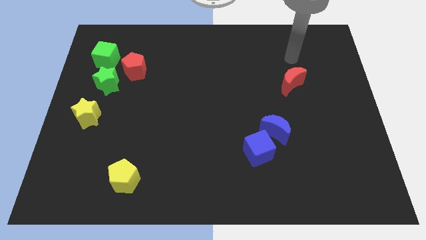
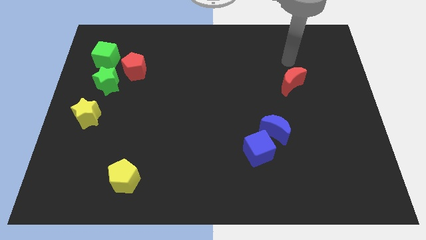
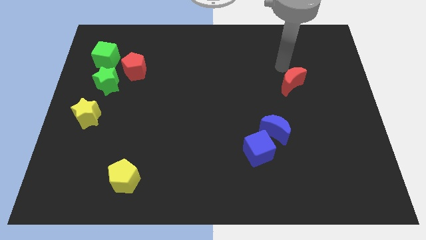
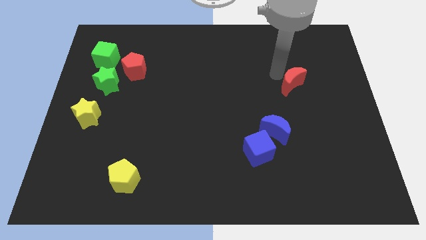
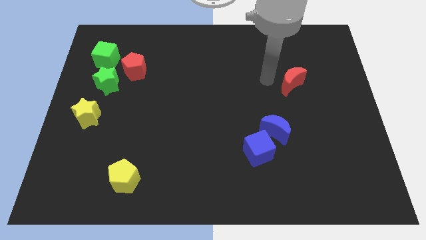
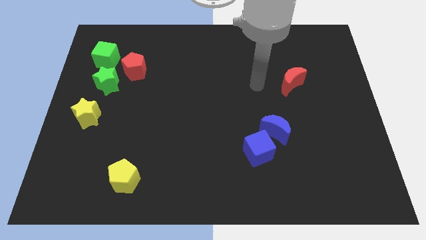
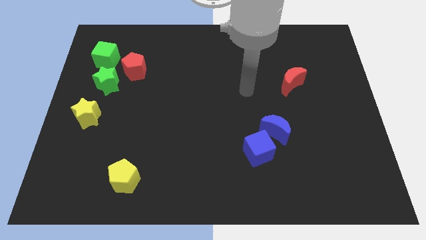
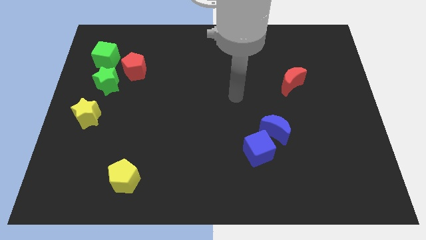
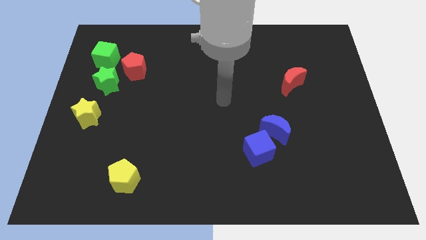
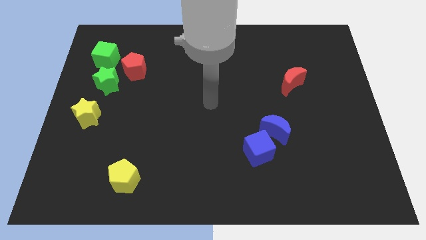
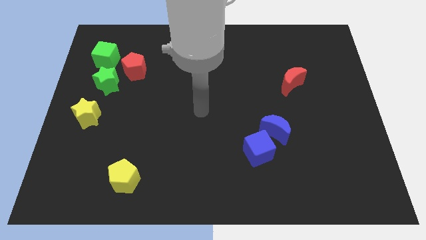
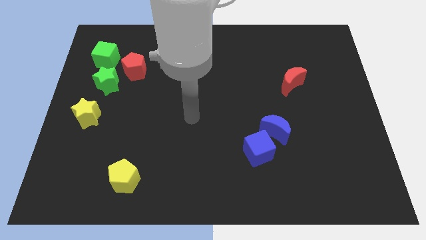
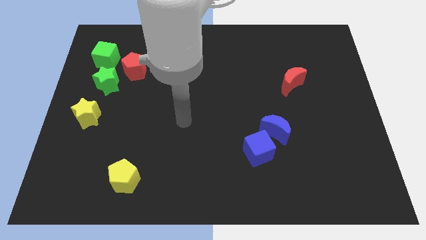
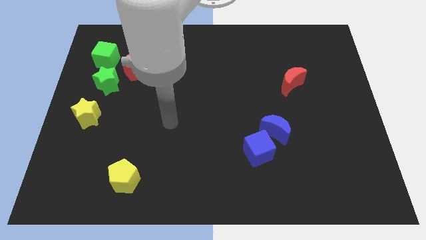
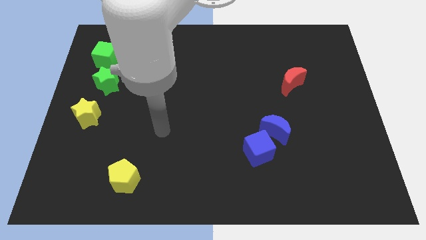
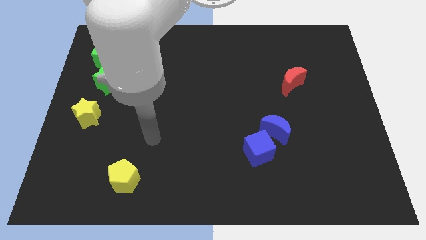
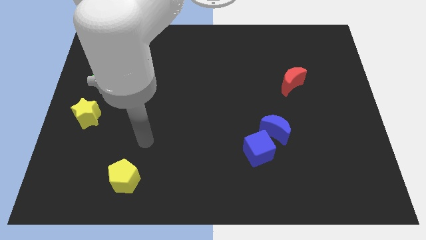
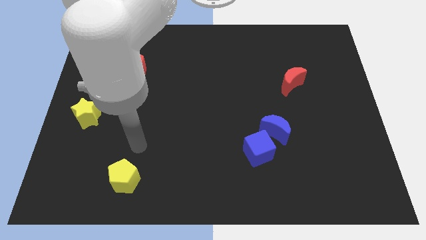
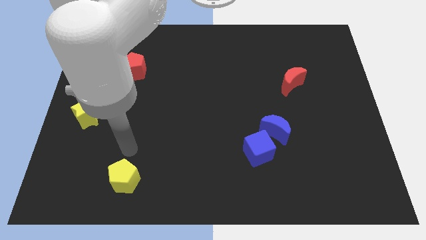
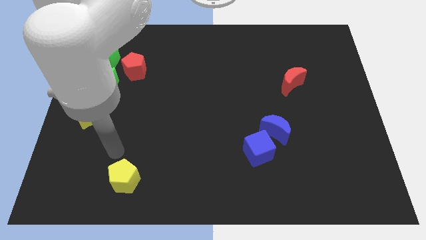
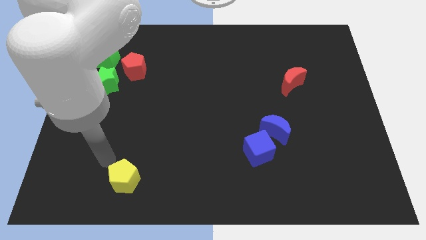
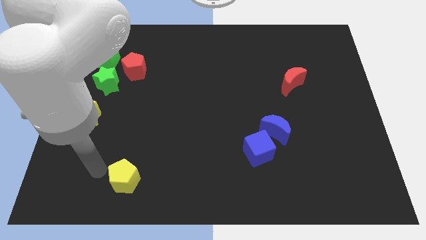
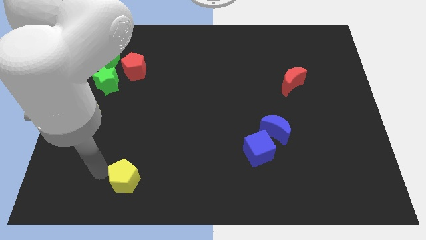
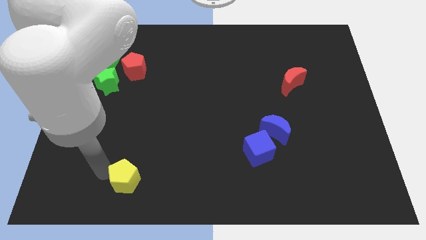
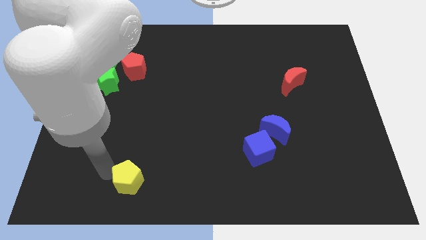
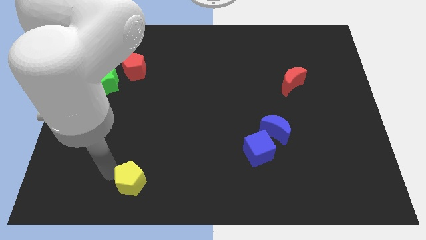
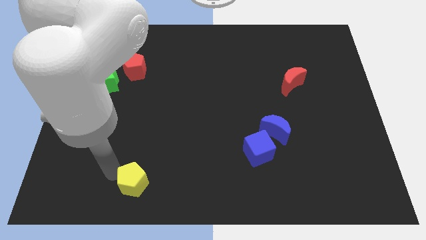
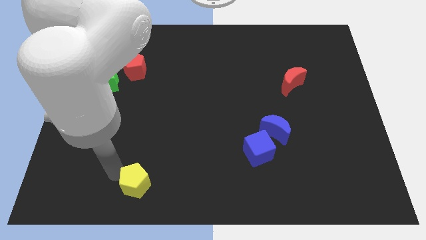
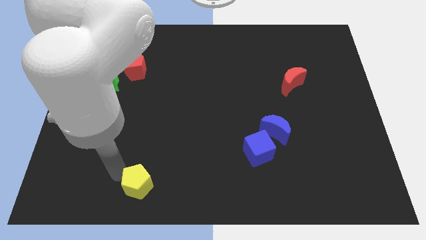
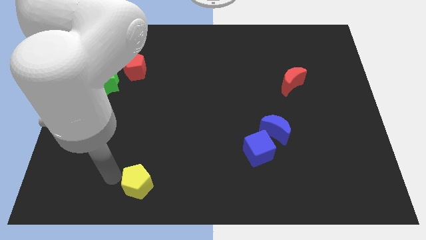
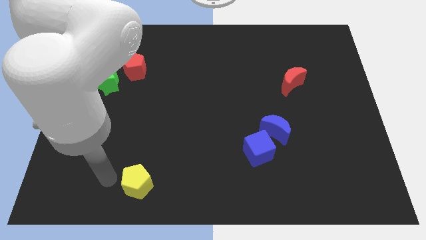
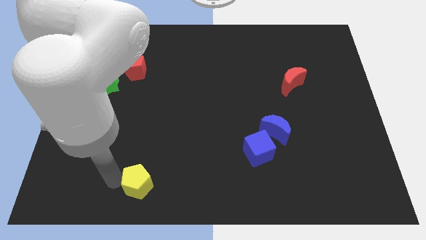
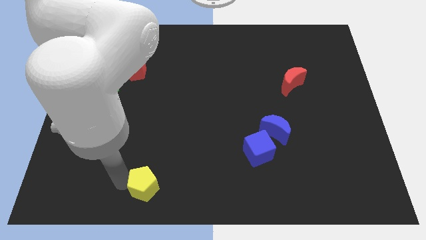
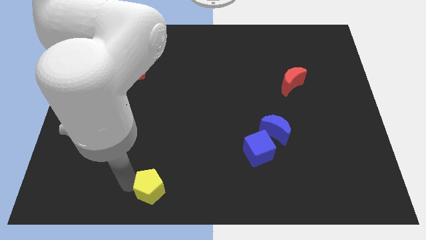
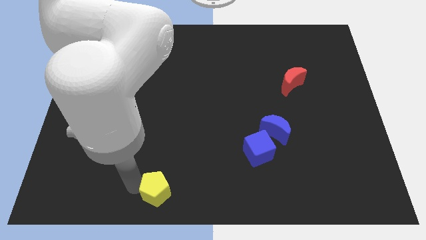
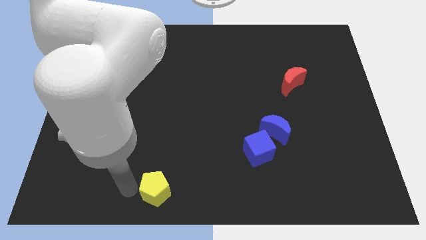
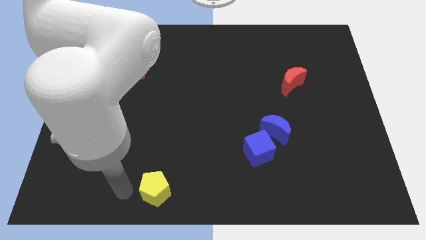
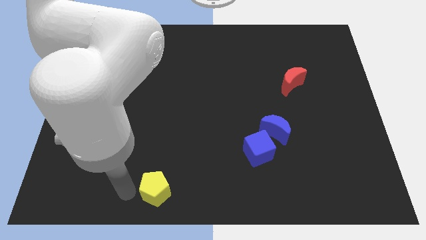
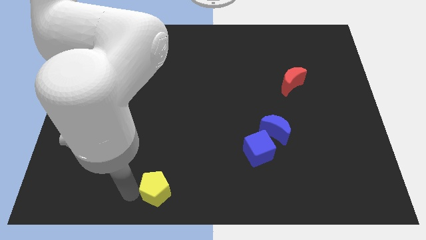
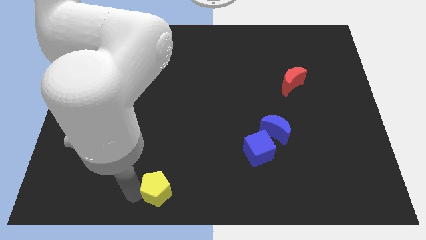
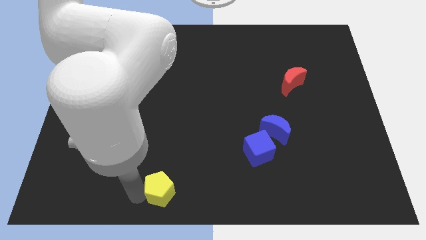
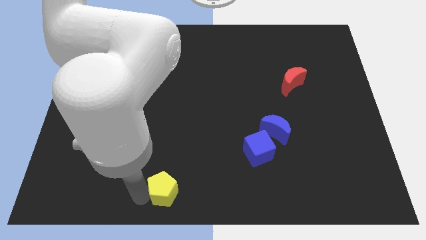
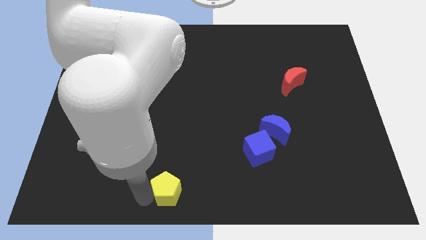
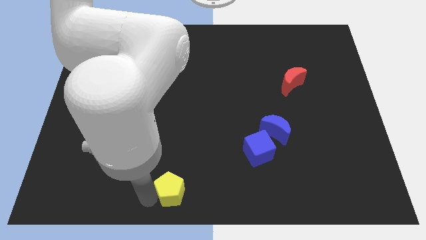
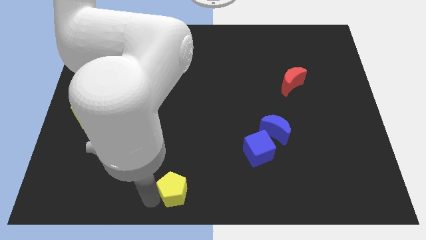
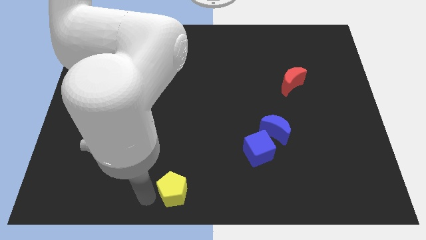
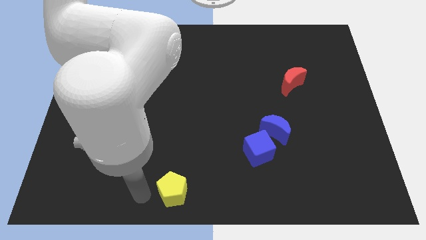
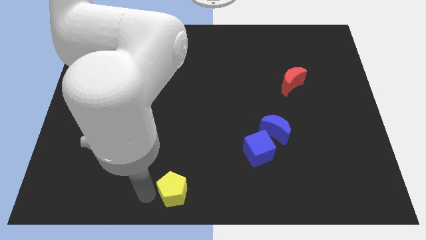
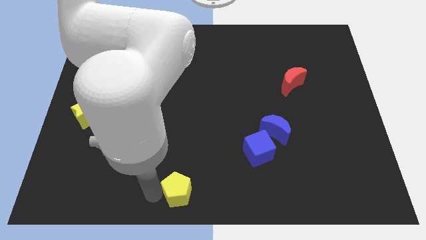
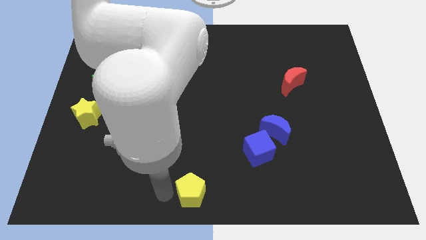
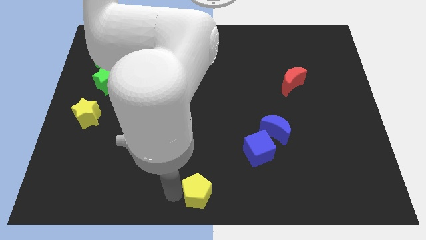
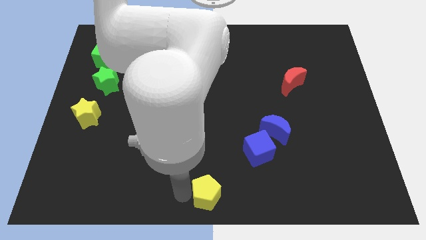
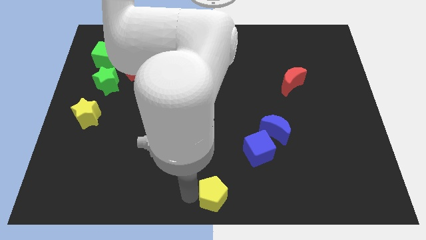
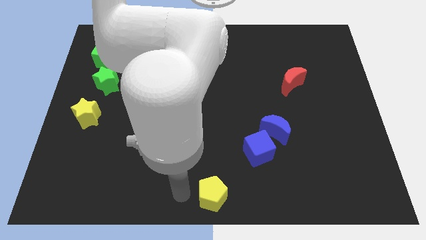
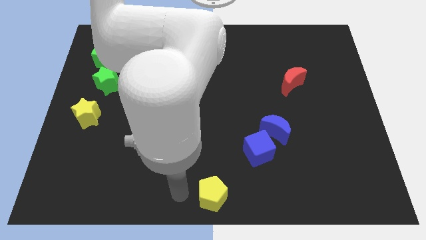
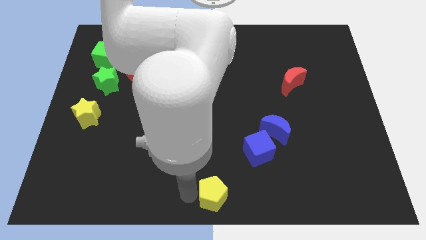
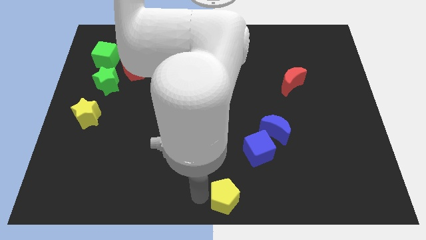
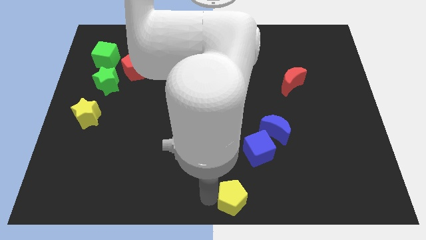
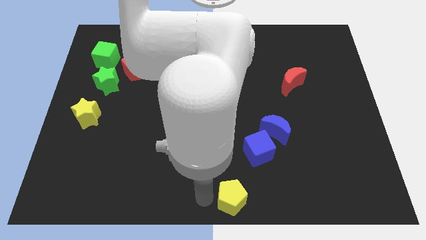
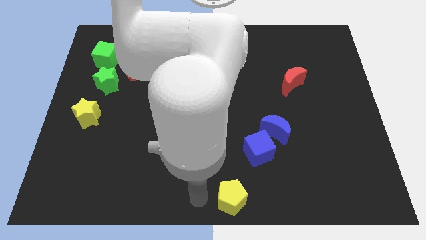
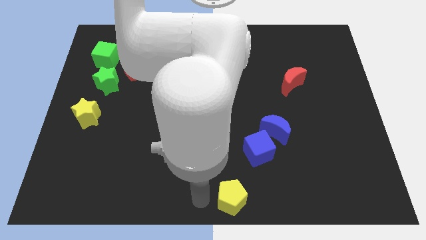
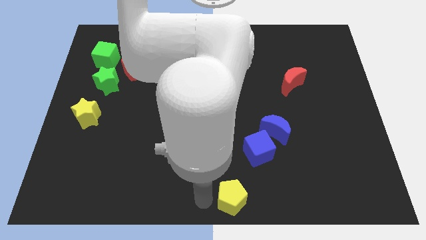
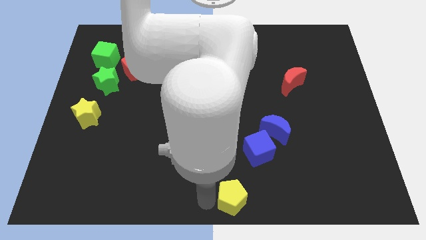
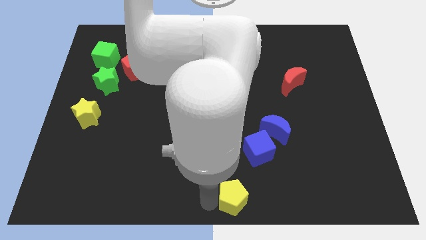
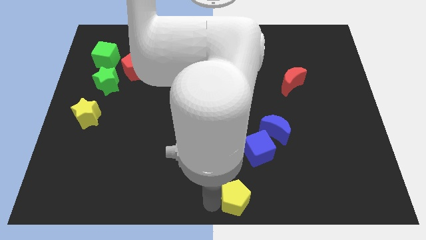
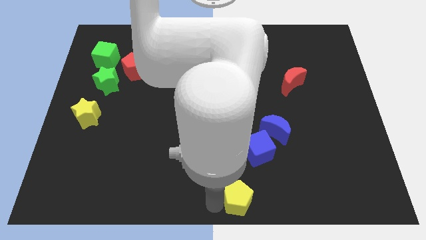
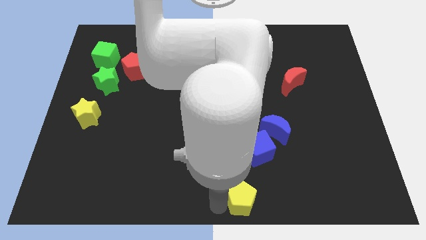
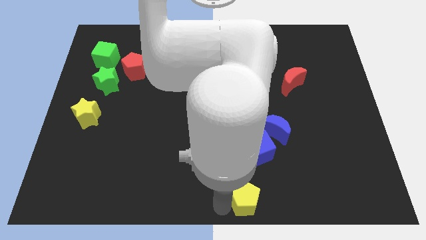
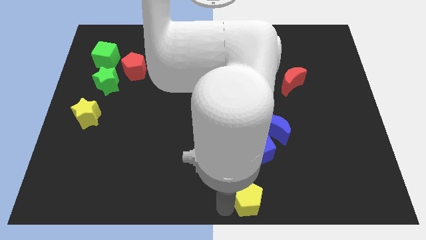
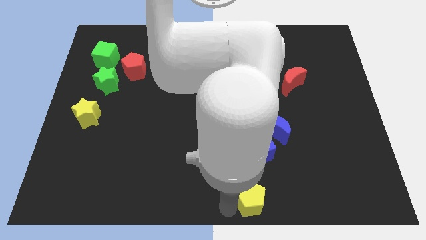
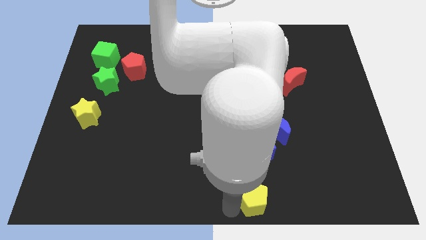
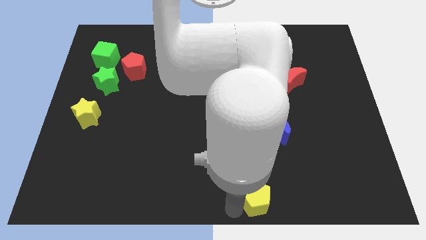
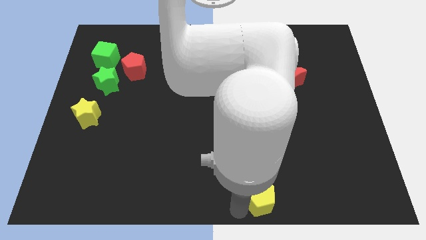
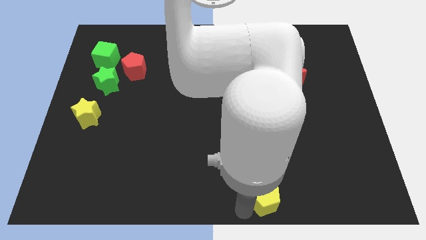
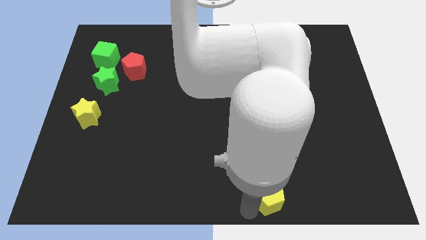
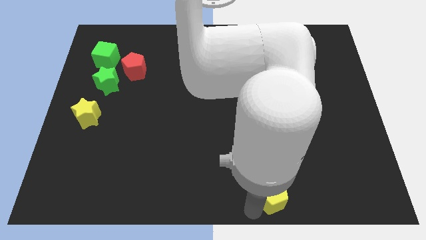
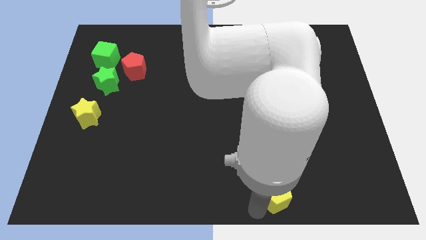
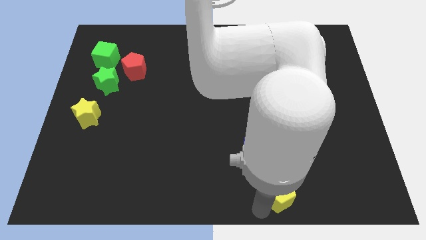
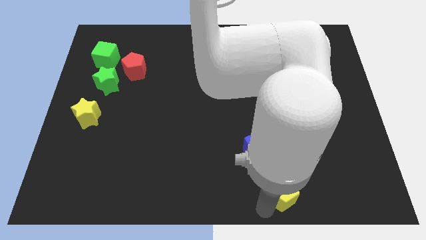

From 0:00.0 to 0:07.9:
put the yellow pentagon to the bottom right of the blue cube

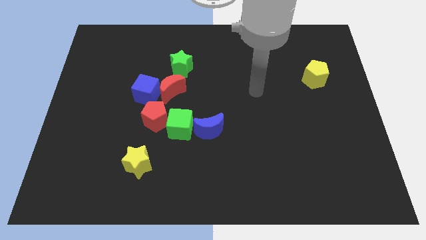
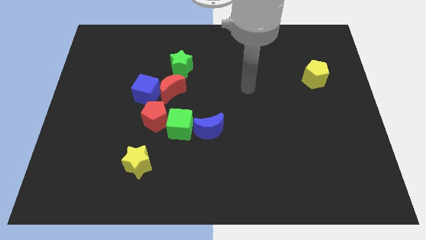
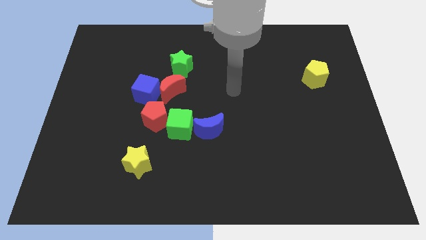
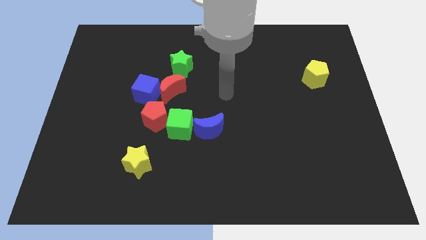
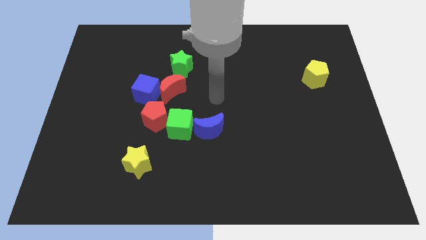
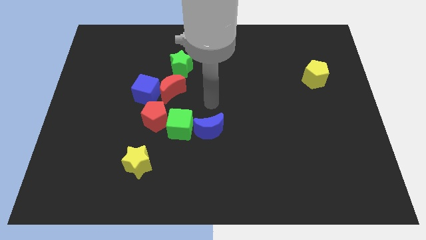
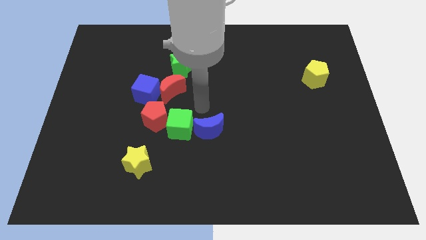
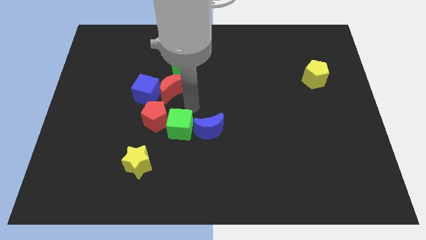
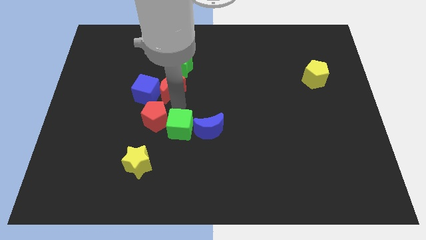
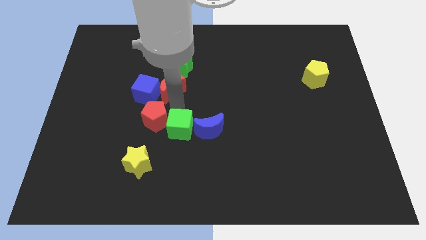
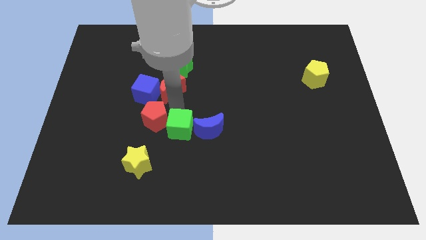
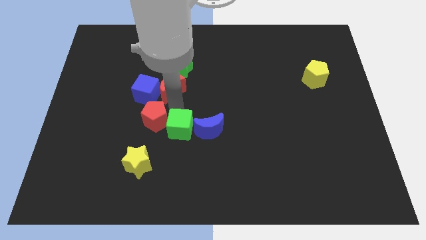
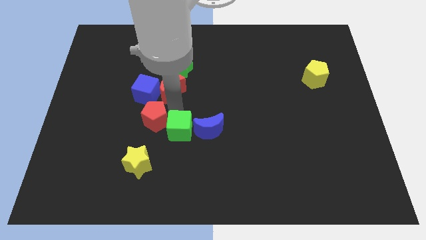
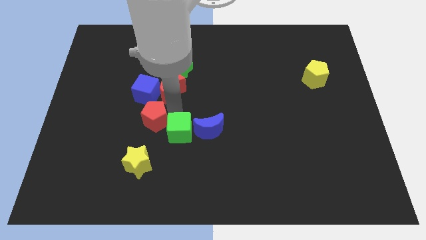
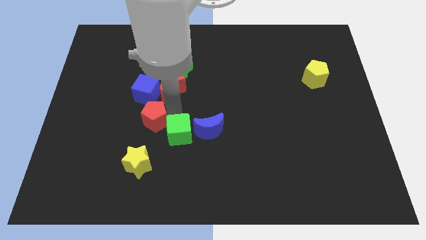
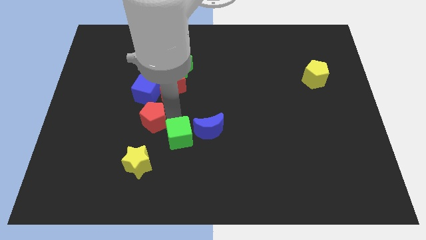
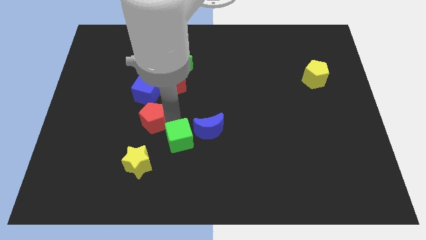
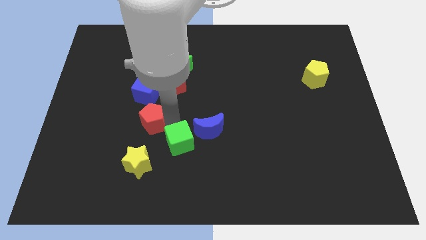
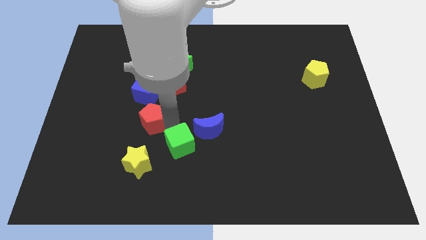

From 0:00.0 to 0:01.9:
slide the green cube to the right side of the yellow star
